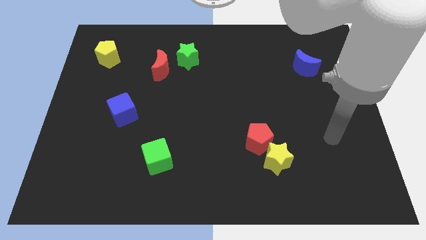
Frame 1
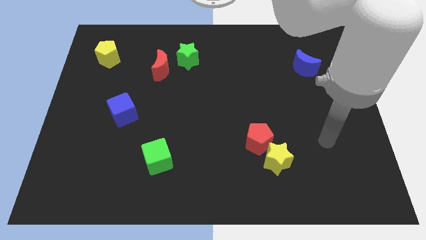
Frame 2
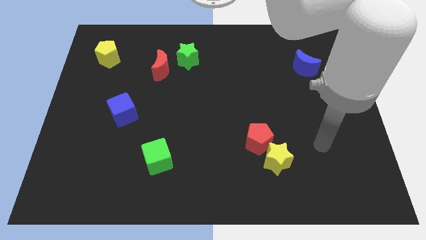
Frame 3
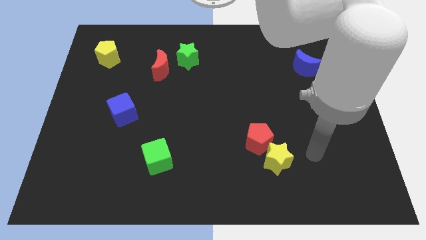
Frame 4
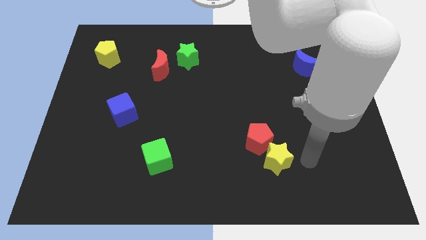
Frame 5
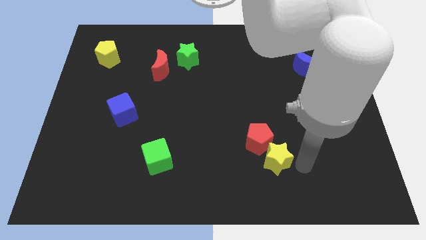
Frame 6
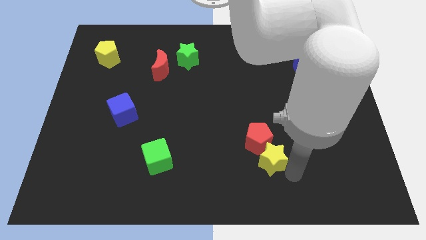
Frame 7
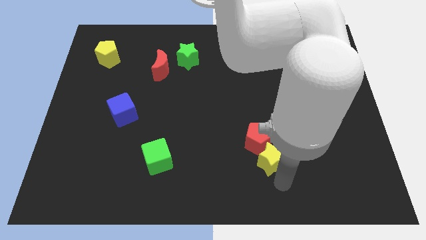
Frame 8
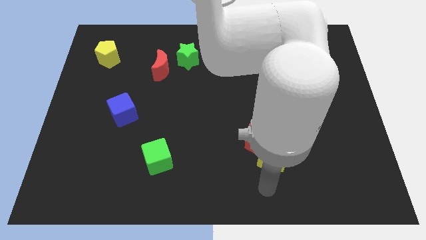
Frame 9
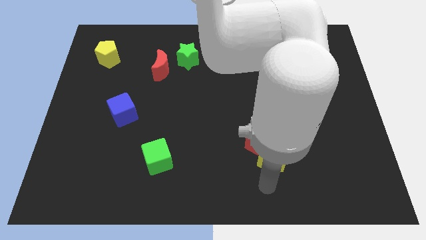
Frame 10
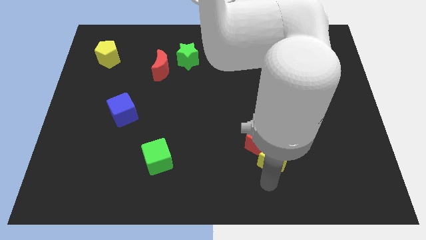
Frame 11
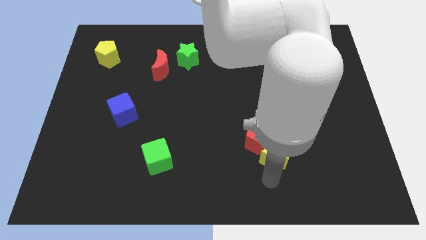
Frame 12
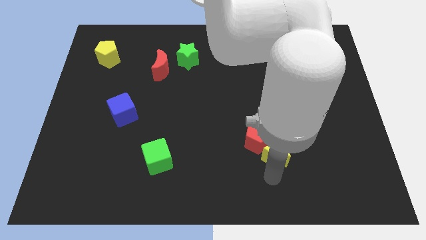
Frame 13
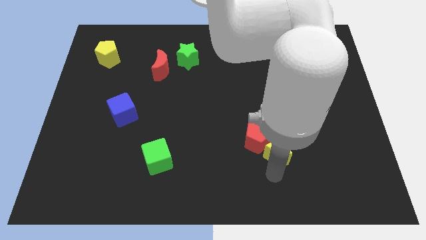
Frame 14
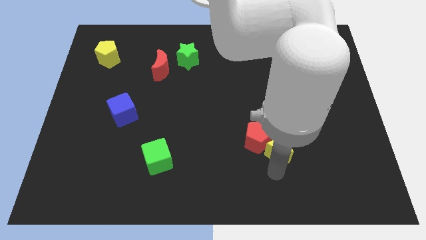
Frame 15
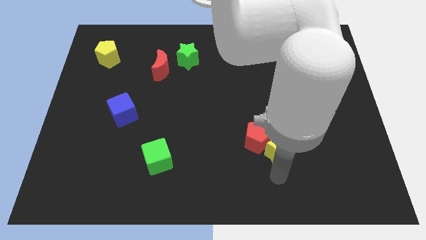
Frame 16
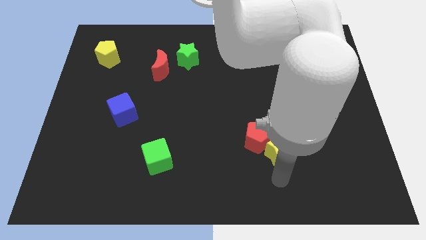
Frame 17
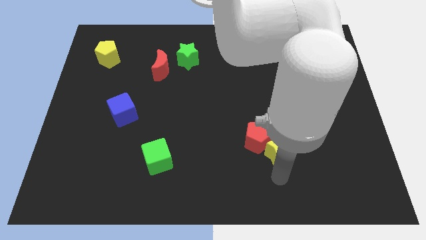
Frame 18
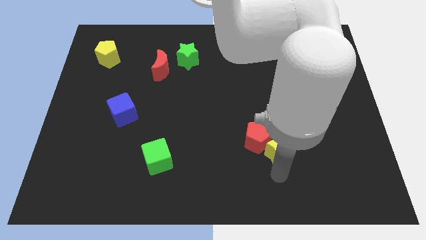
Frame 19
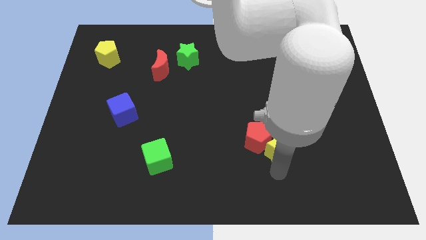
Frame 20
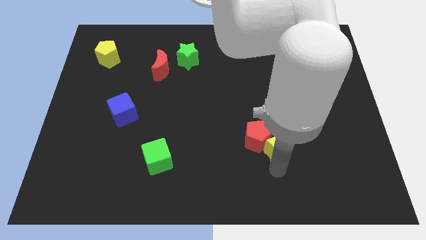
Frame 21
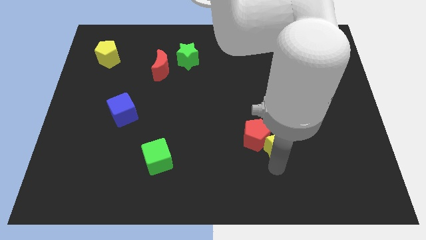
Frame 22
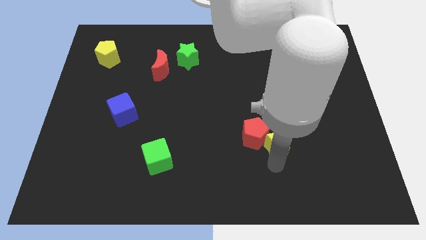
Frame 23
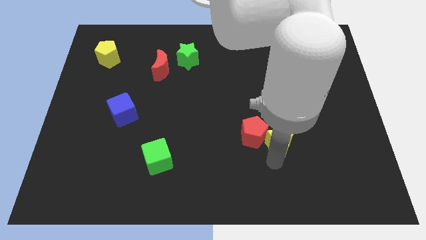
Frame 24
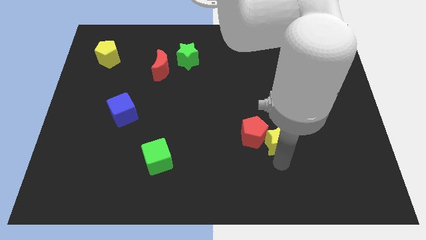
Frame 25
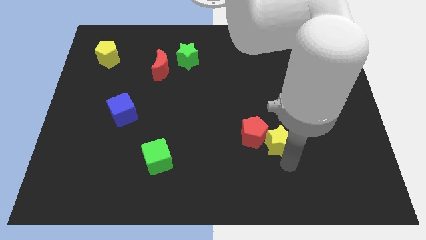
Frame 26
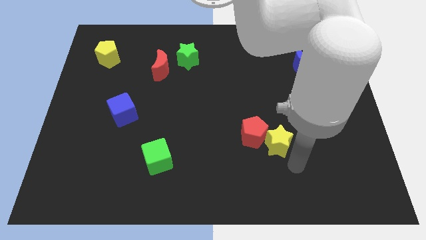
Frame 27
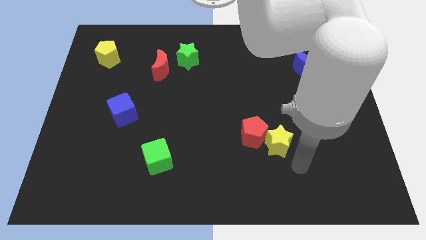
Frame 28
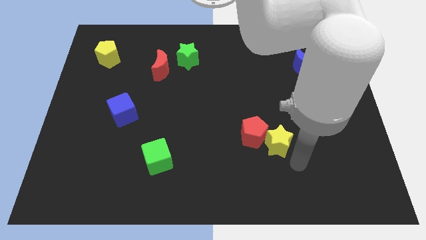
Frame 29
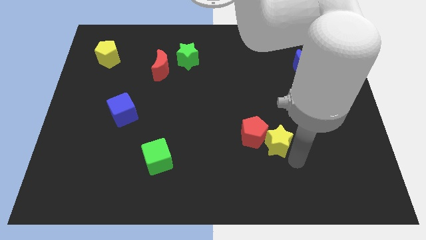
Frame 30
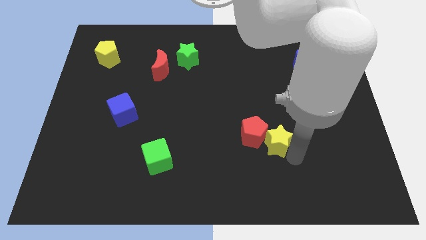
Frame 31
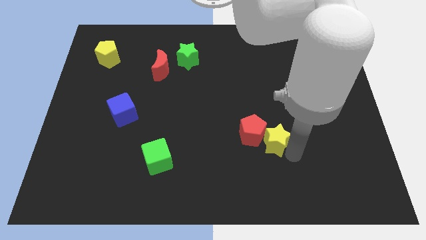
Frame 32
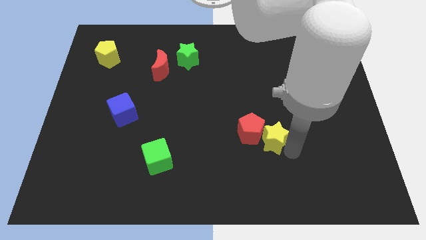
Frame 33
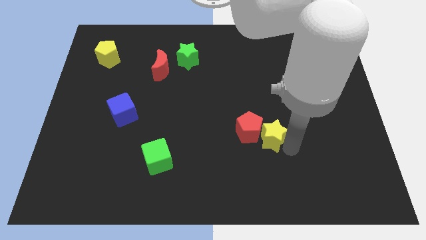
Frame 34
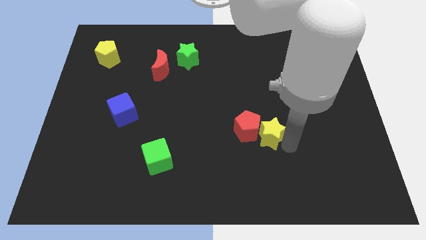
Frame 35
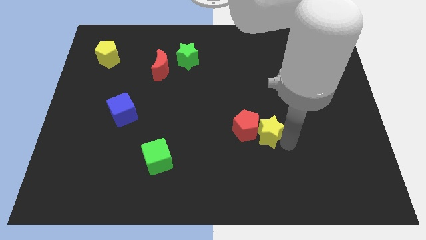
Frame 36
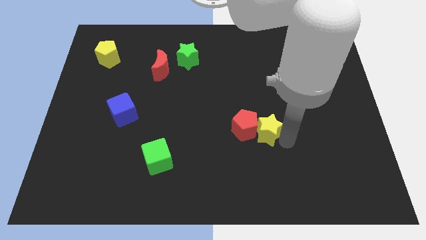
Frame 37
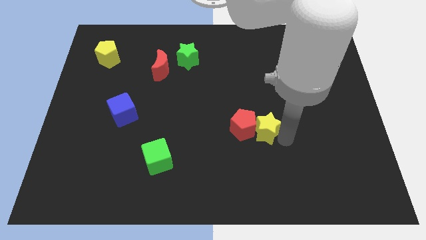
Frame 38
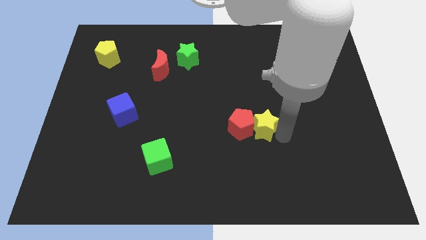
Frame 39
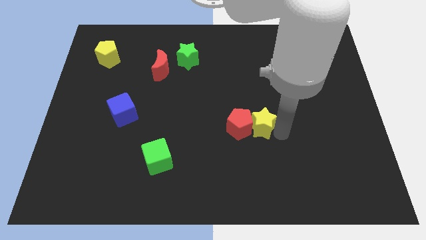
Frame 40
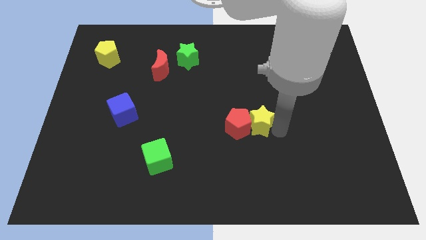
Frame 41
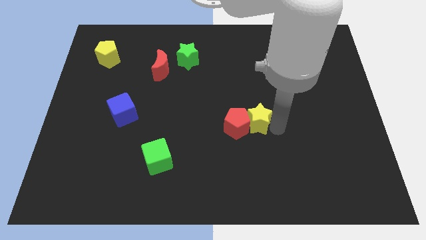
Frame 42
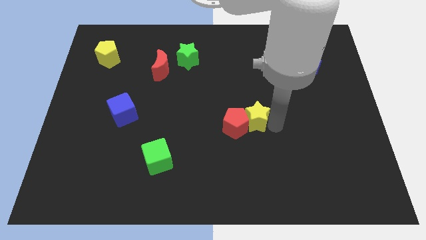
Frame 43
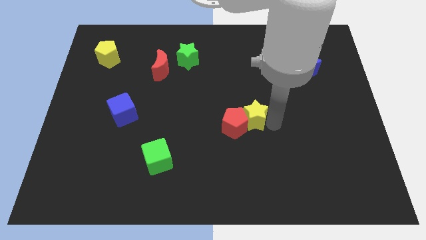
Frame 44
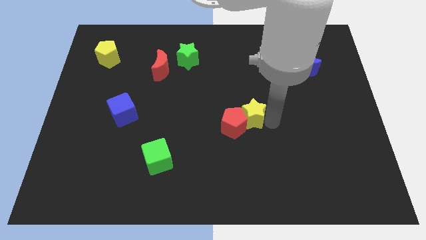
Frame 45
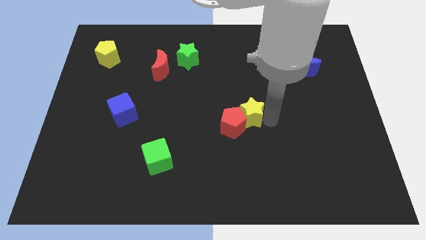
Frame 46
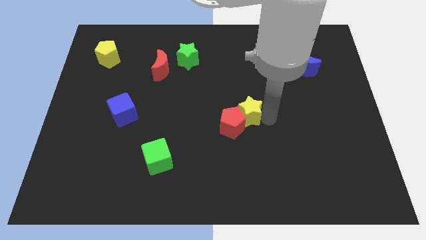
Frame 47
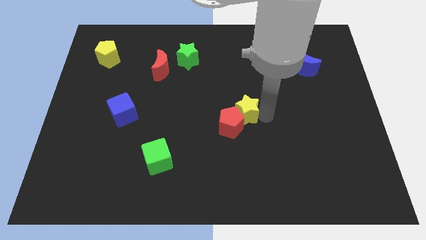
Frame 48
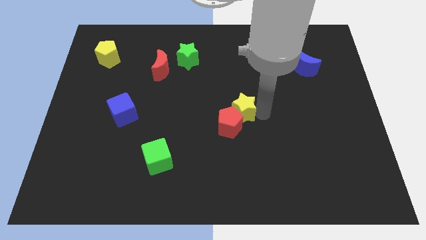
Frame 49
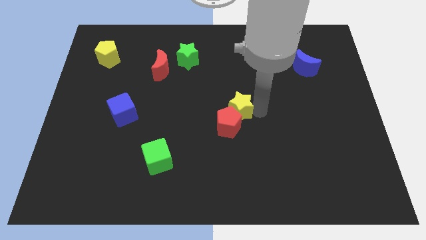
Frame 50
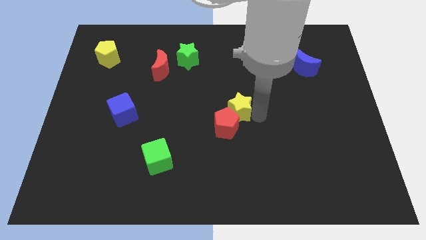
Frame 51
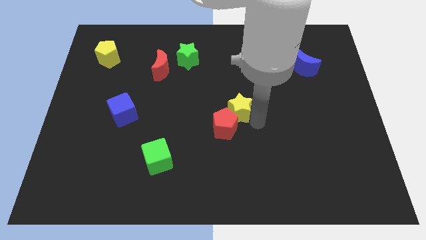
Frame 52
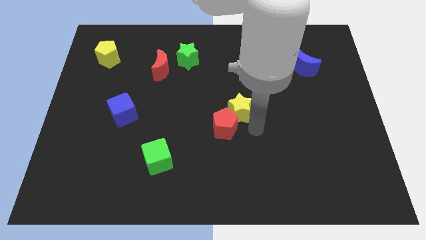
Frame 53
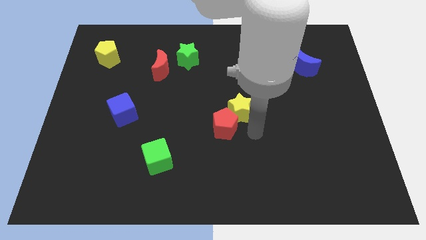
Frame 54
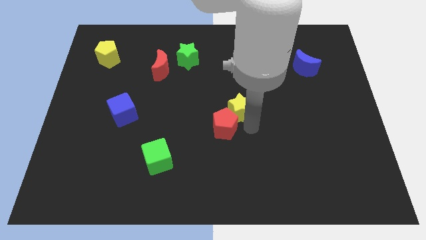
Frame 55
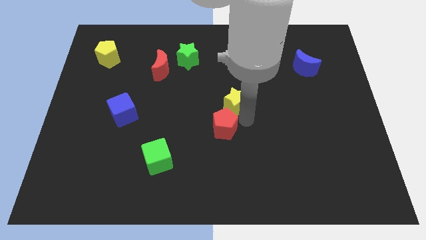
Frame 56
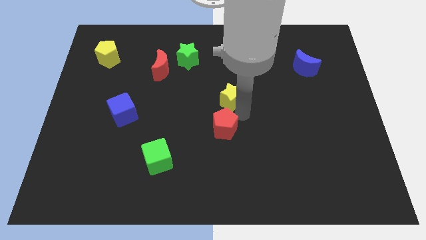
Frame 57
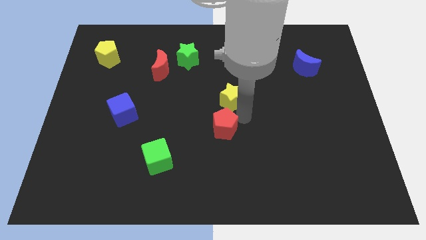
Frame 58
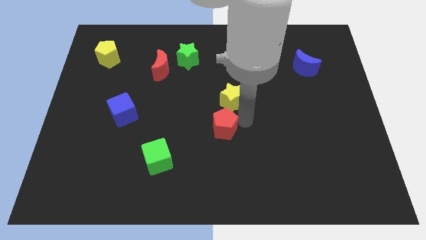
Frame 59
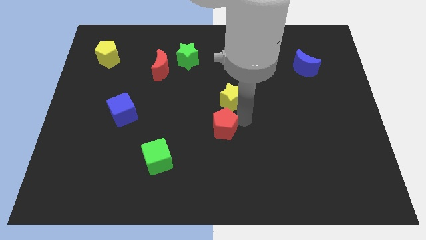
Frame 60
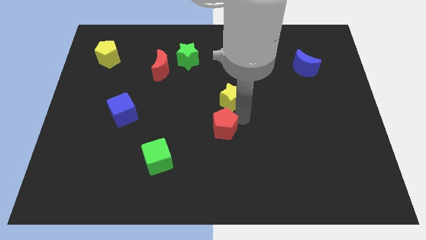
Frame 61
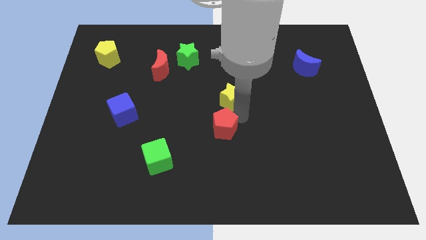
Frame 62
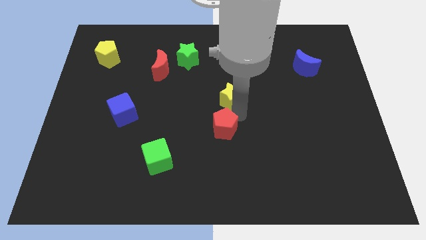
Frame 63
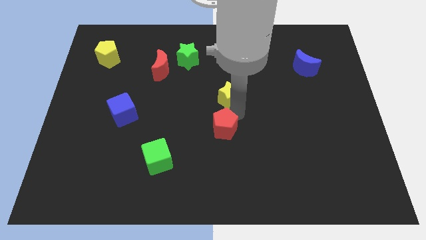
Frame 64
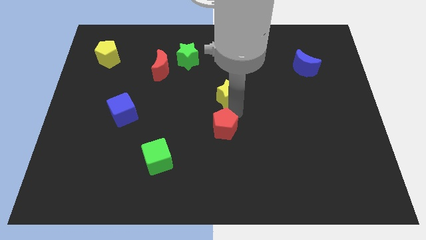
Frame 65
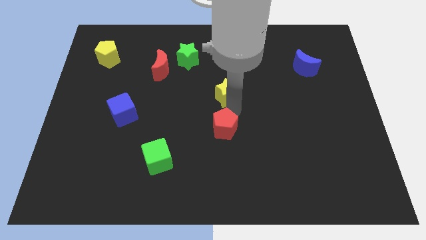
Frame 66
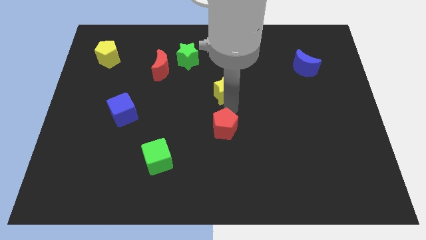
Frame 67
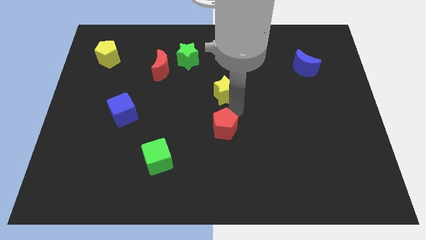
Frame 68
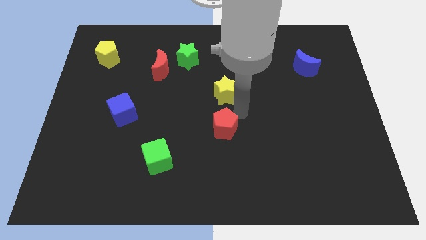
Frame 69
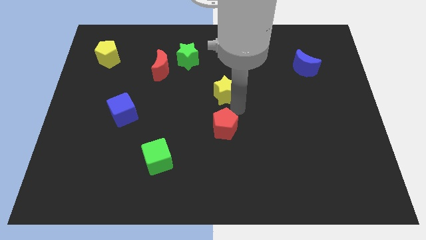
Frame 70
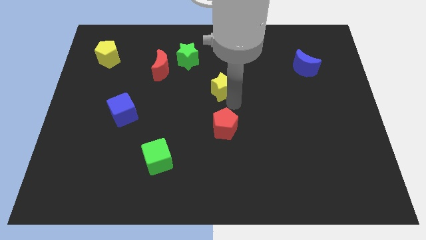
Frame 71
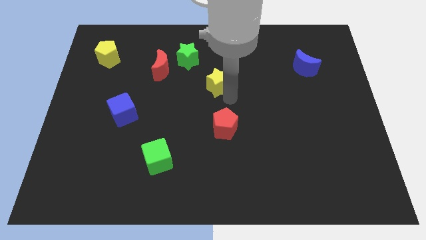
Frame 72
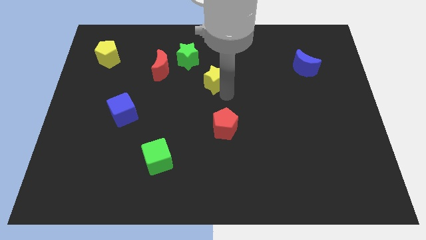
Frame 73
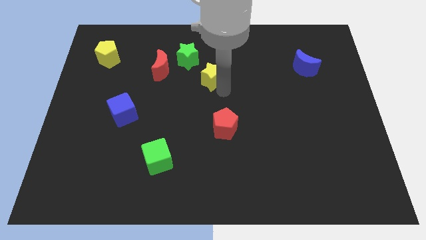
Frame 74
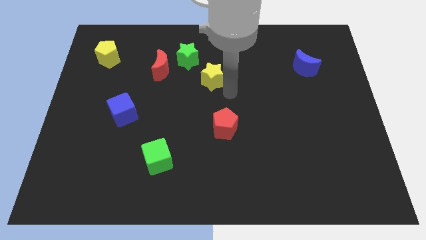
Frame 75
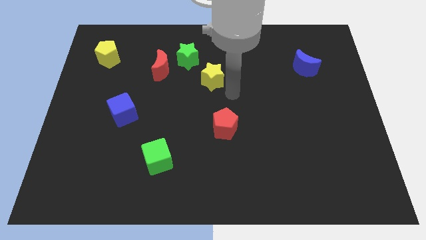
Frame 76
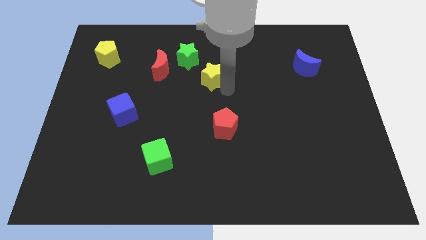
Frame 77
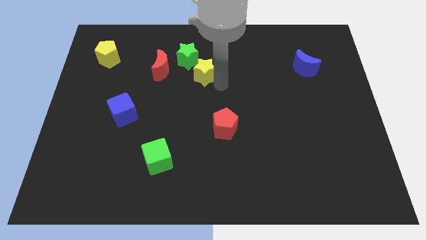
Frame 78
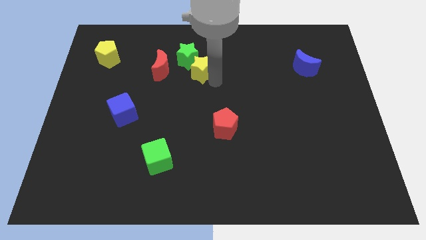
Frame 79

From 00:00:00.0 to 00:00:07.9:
push the yellow star towards the green star
